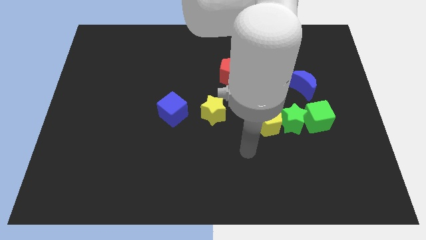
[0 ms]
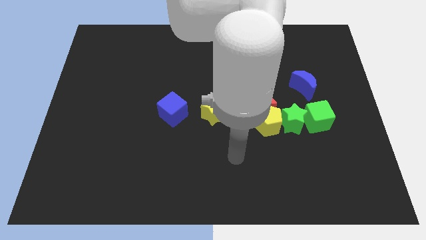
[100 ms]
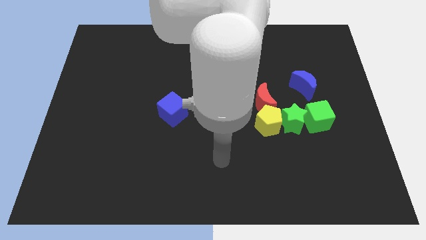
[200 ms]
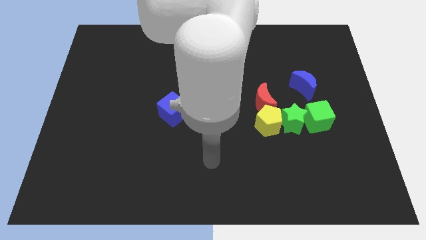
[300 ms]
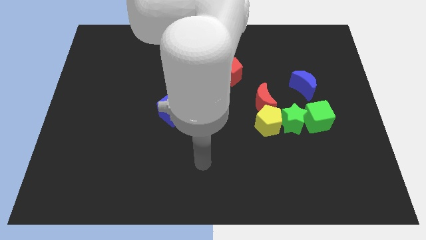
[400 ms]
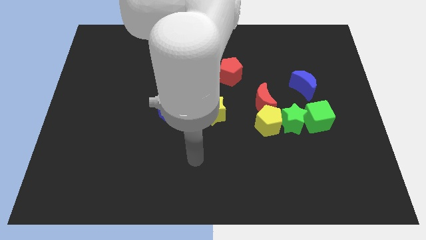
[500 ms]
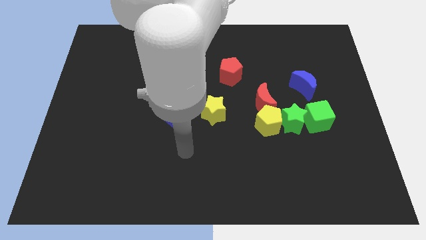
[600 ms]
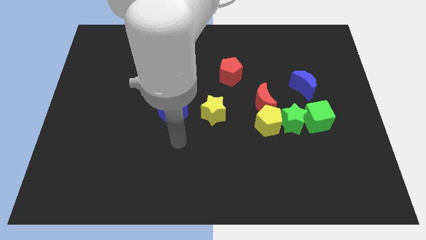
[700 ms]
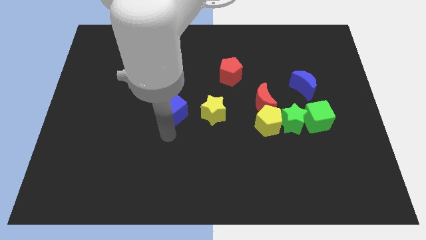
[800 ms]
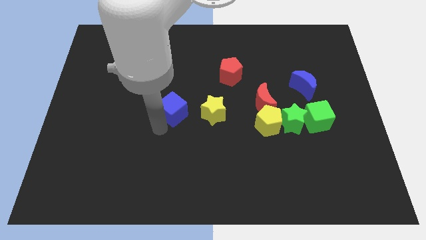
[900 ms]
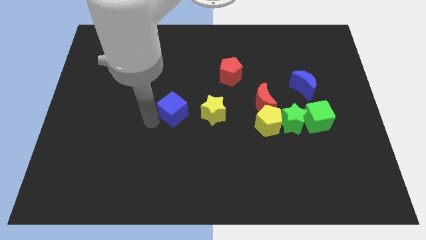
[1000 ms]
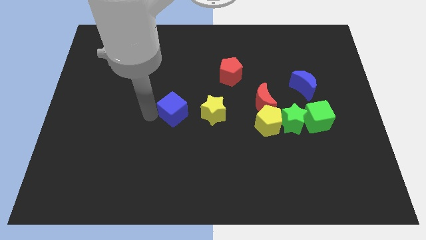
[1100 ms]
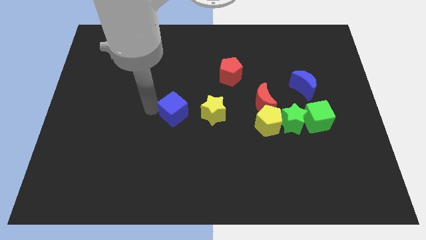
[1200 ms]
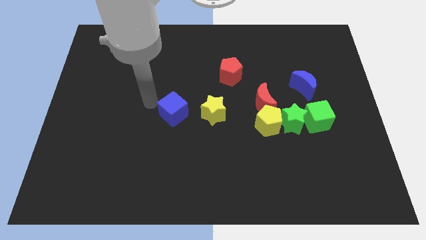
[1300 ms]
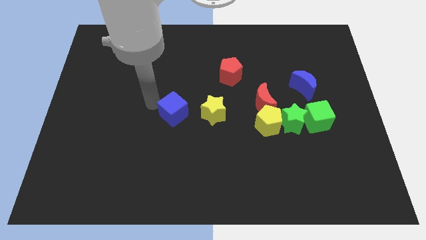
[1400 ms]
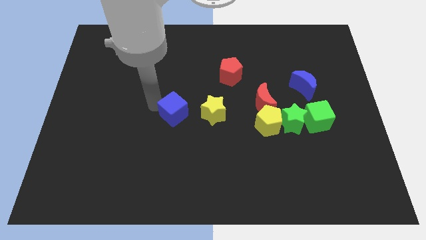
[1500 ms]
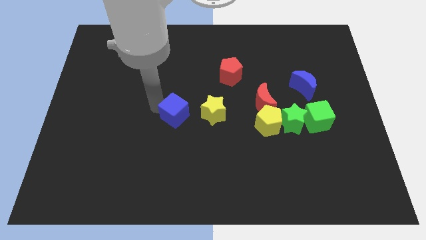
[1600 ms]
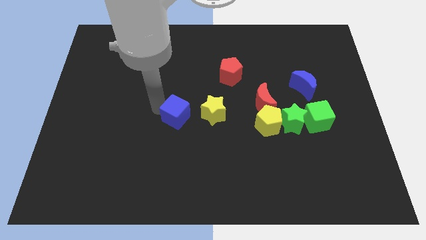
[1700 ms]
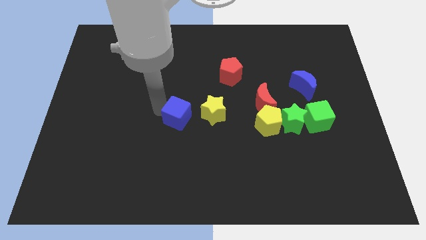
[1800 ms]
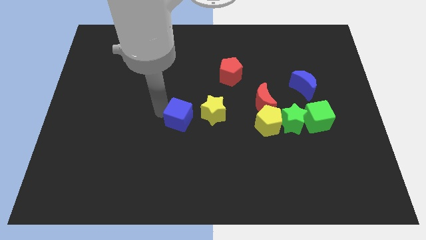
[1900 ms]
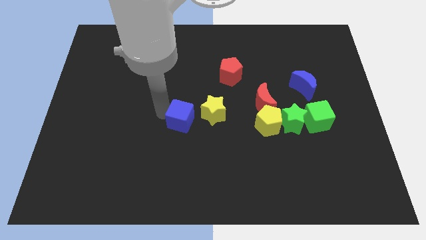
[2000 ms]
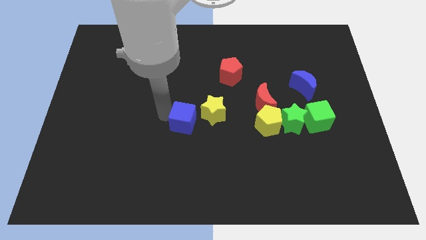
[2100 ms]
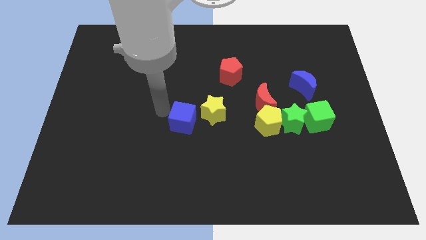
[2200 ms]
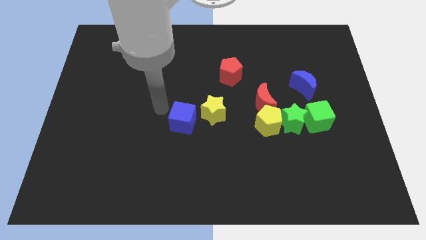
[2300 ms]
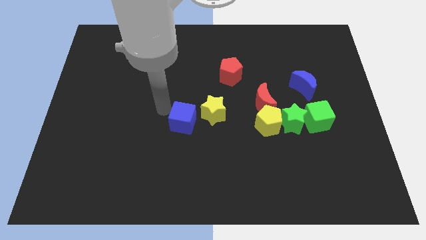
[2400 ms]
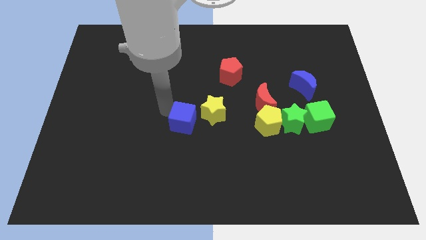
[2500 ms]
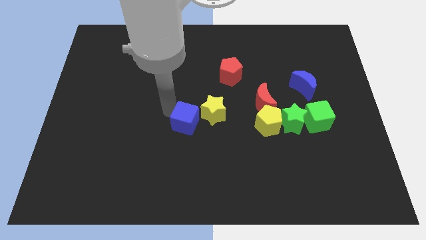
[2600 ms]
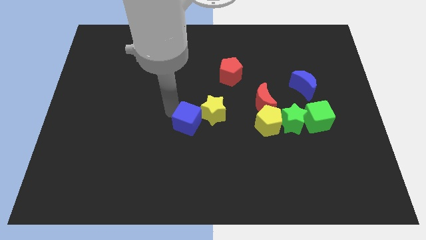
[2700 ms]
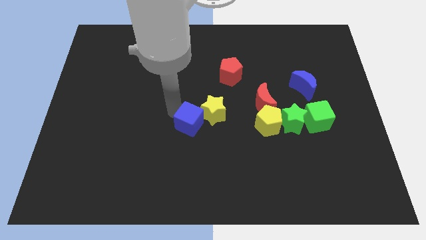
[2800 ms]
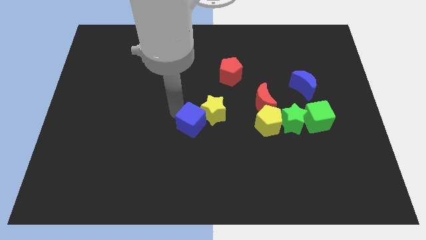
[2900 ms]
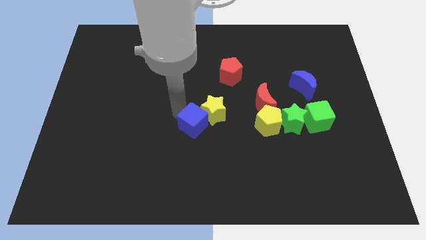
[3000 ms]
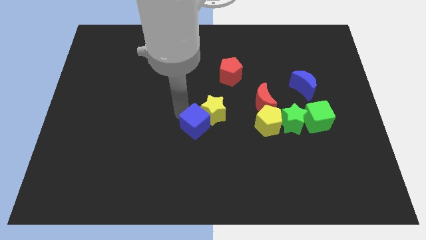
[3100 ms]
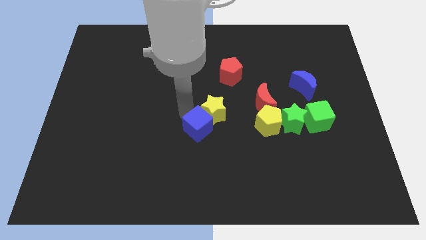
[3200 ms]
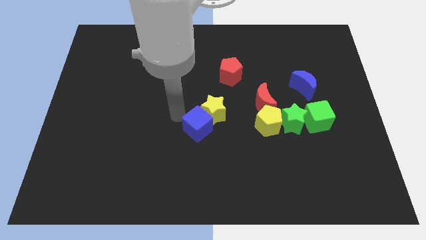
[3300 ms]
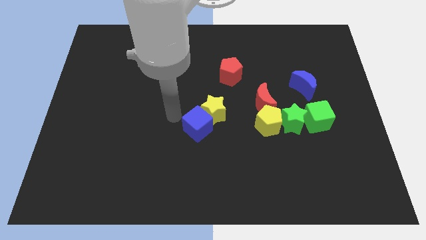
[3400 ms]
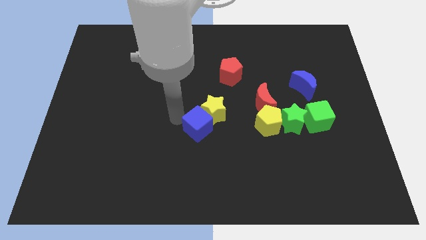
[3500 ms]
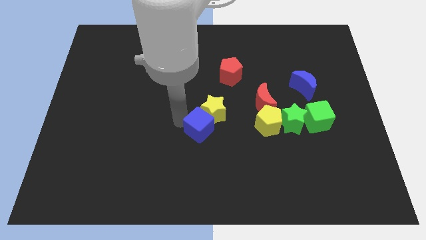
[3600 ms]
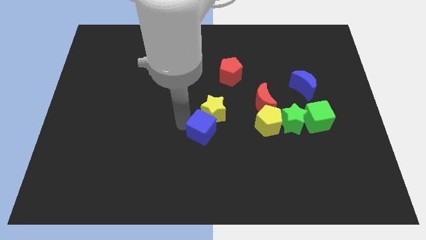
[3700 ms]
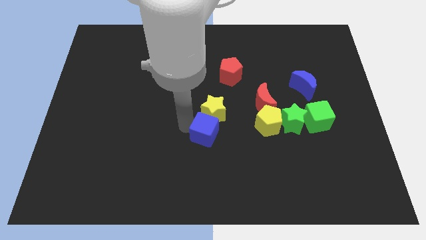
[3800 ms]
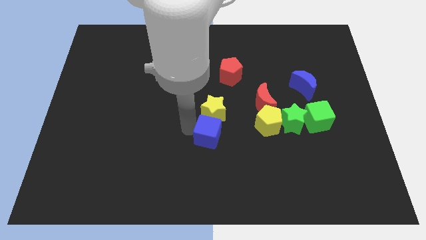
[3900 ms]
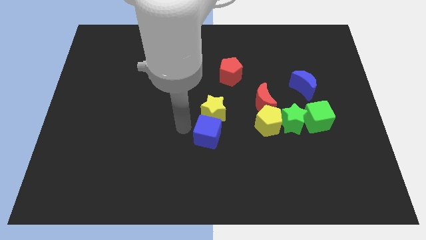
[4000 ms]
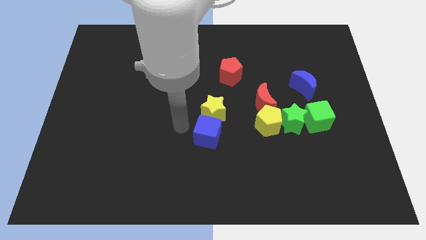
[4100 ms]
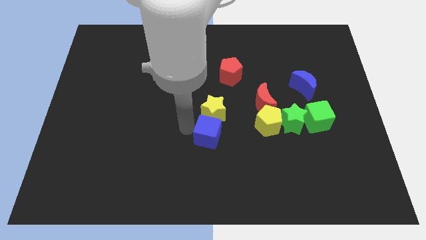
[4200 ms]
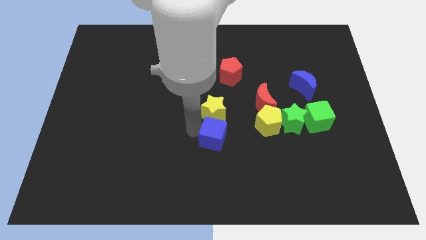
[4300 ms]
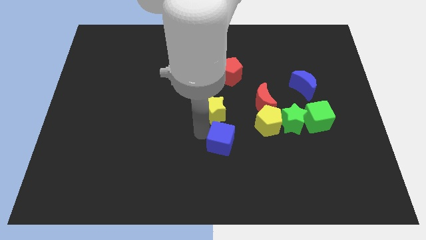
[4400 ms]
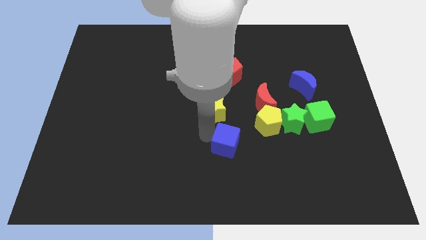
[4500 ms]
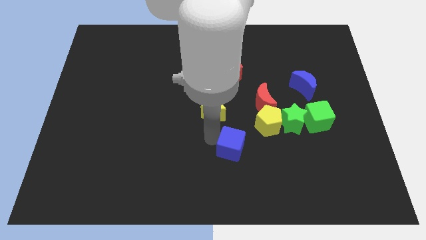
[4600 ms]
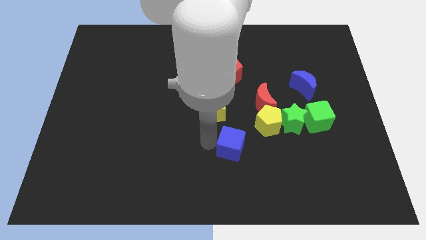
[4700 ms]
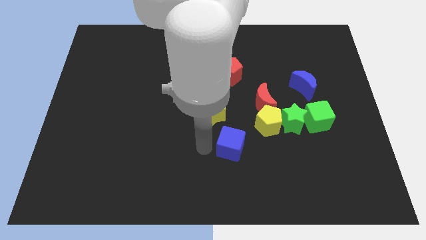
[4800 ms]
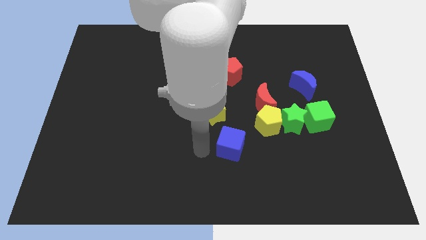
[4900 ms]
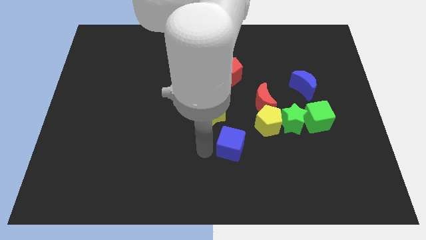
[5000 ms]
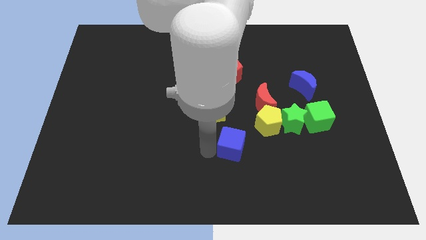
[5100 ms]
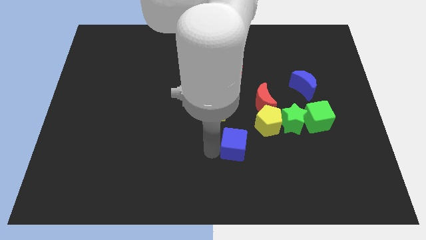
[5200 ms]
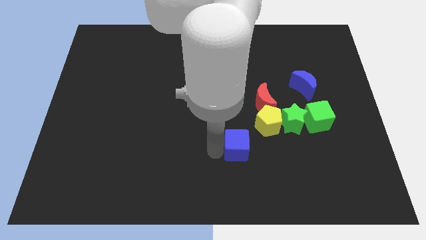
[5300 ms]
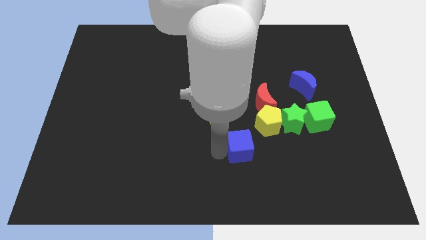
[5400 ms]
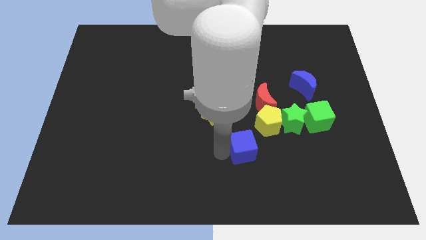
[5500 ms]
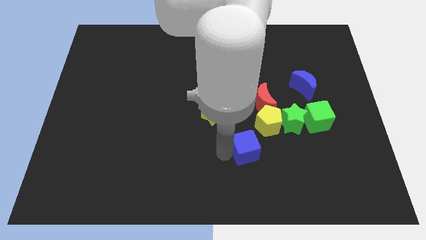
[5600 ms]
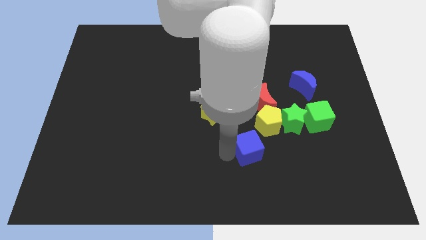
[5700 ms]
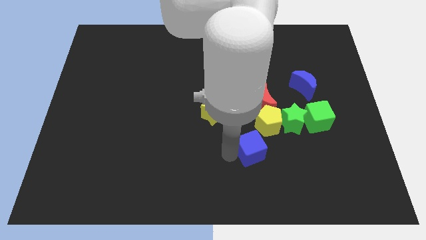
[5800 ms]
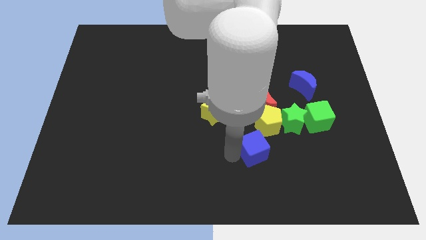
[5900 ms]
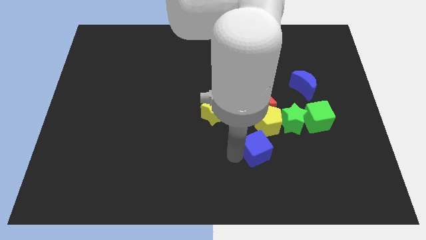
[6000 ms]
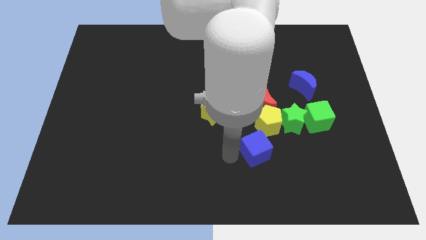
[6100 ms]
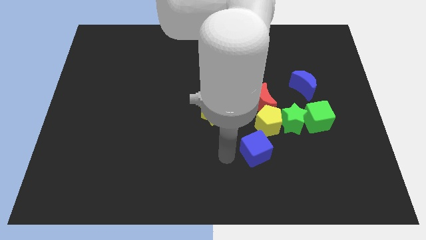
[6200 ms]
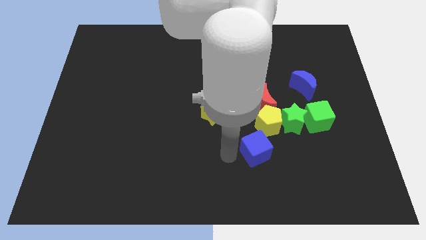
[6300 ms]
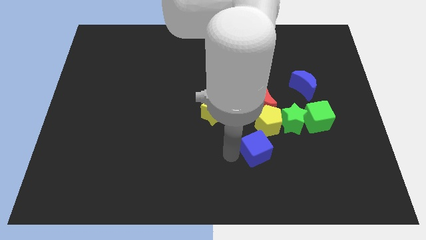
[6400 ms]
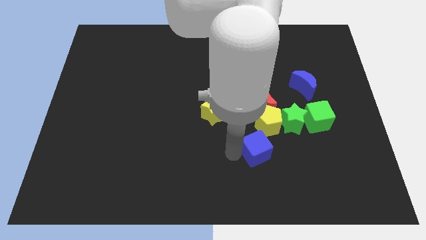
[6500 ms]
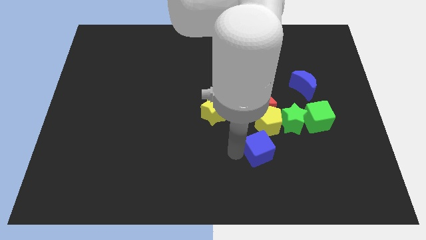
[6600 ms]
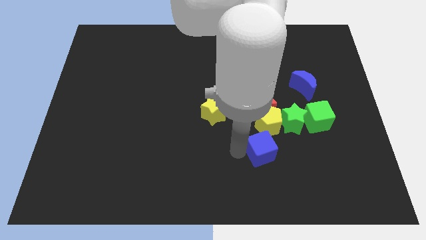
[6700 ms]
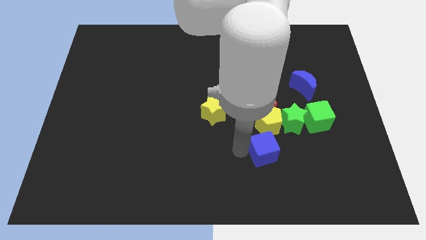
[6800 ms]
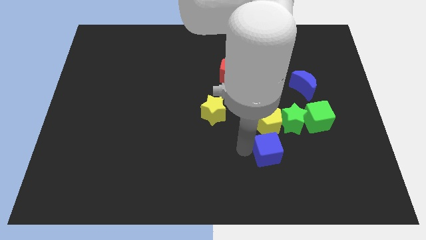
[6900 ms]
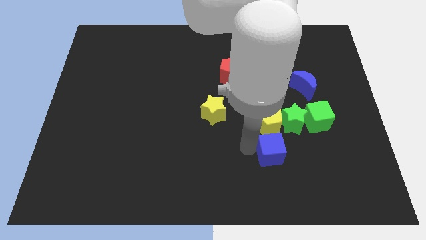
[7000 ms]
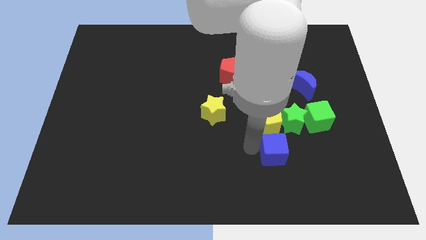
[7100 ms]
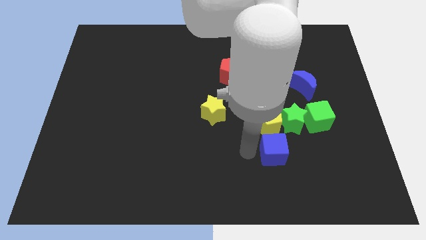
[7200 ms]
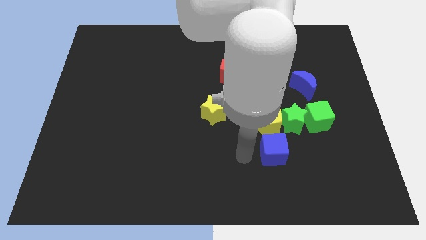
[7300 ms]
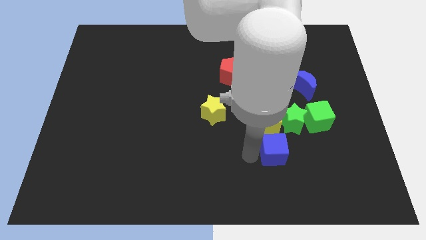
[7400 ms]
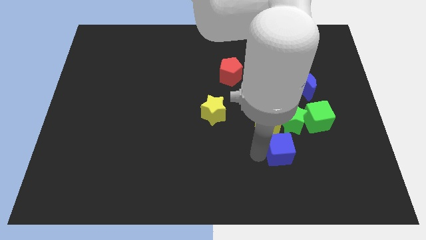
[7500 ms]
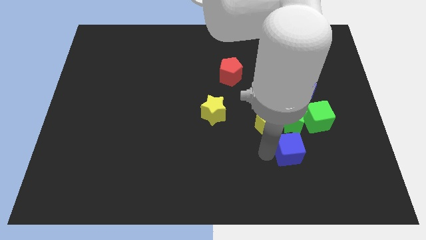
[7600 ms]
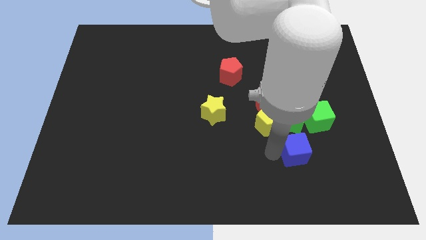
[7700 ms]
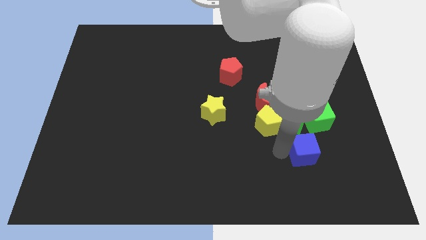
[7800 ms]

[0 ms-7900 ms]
push the blue cube to the bottom side of the green cube
